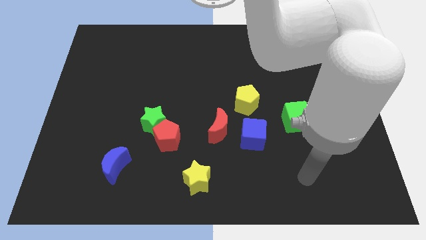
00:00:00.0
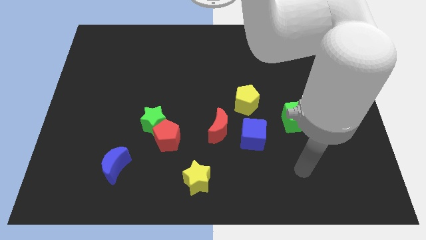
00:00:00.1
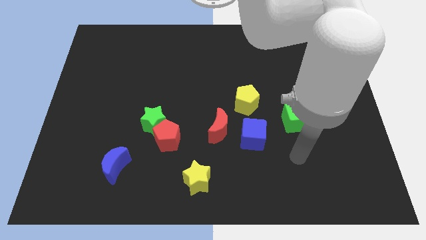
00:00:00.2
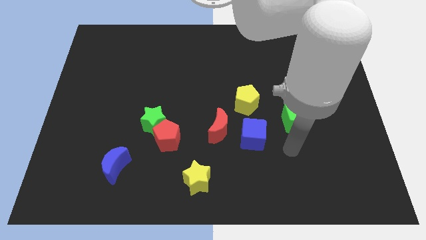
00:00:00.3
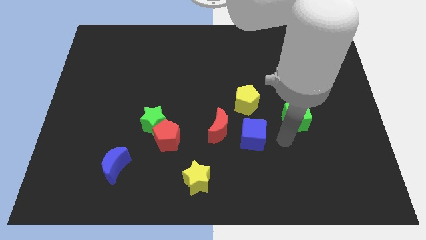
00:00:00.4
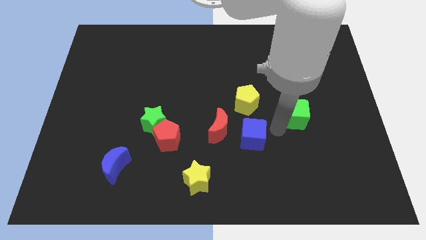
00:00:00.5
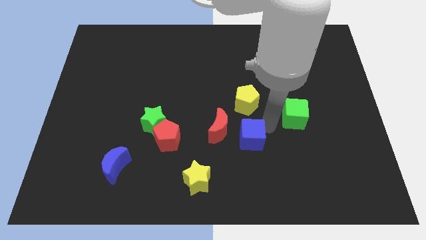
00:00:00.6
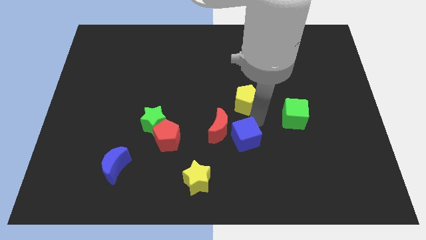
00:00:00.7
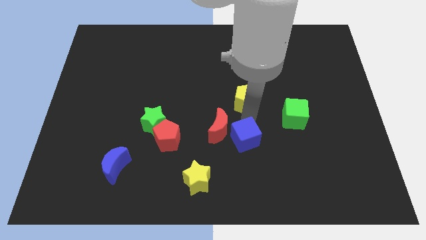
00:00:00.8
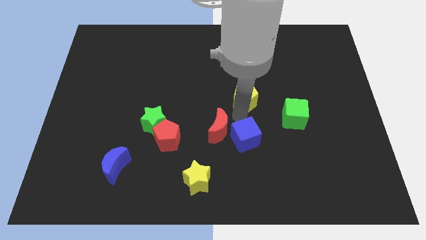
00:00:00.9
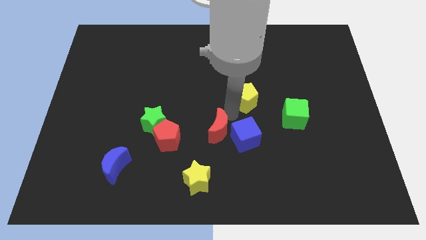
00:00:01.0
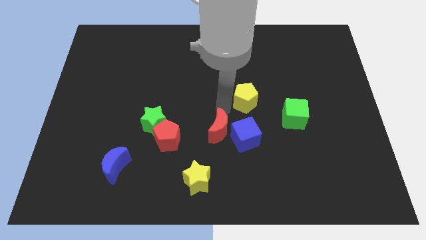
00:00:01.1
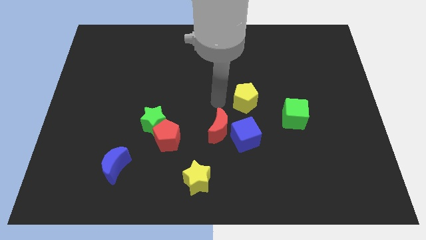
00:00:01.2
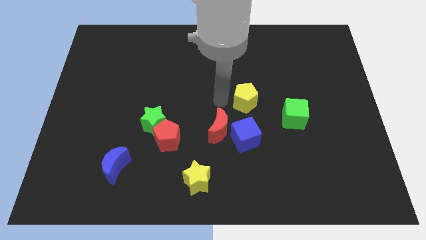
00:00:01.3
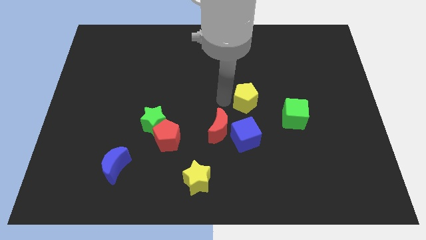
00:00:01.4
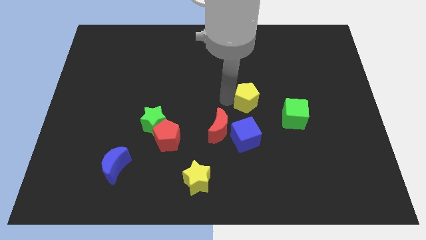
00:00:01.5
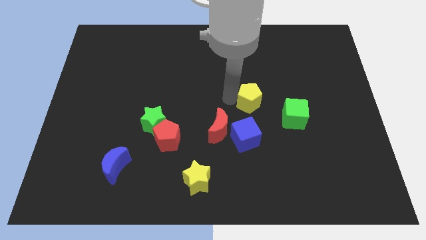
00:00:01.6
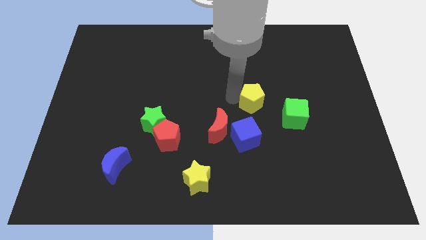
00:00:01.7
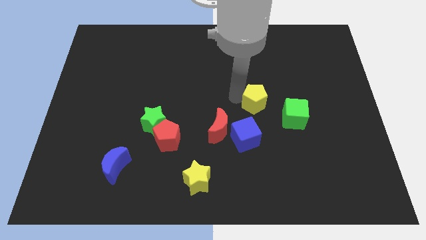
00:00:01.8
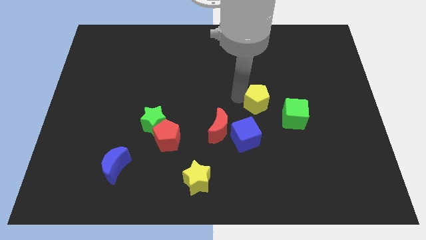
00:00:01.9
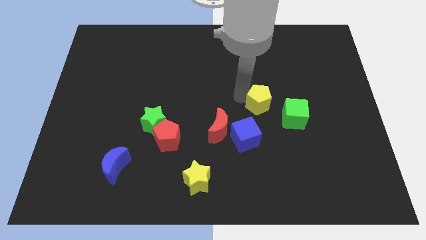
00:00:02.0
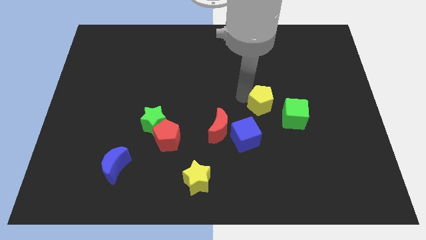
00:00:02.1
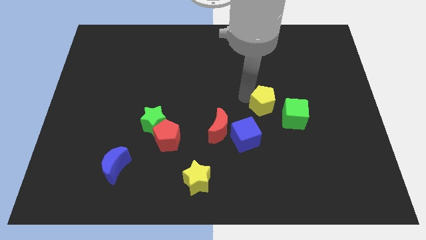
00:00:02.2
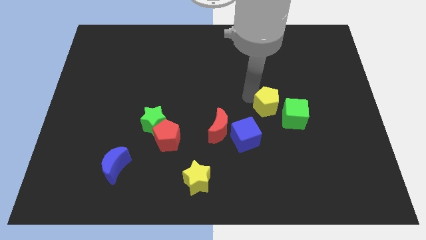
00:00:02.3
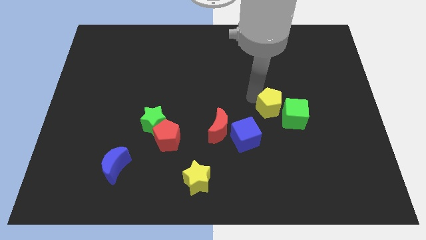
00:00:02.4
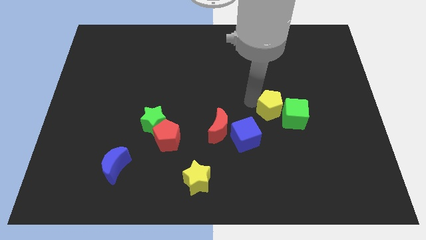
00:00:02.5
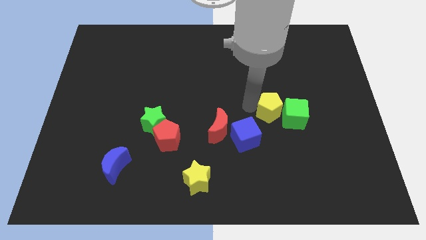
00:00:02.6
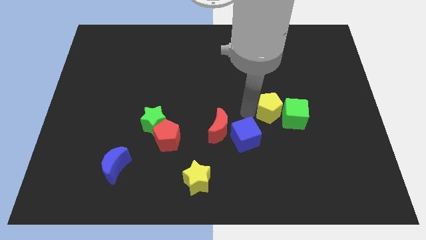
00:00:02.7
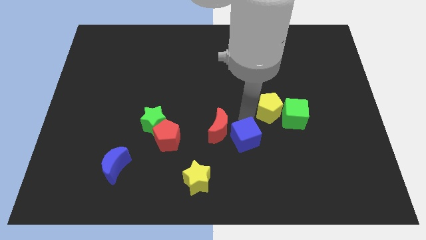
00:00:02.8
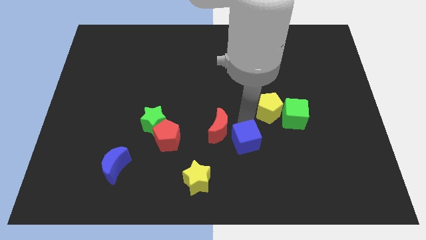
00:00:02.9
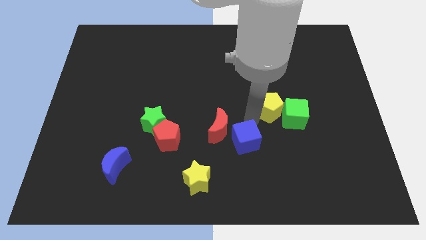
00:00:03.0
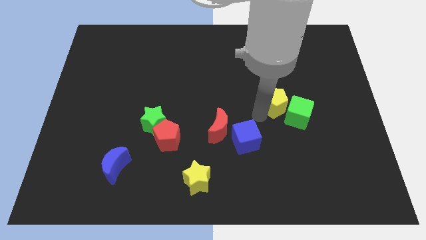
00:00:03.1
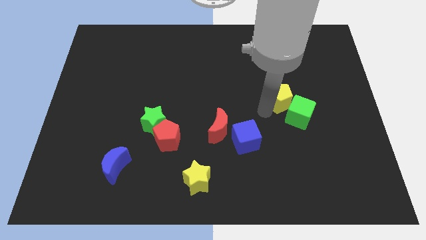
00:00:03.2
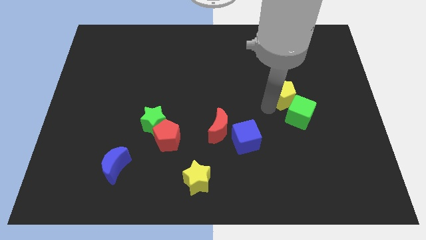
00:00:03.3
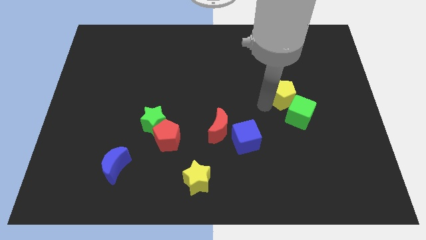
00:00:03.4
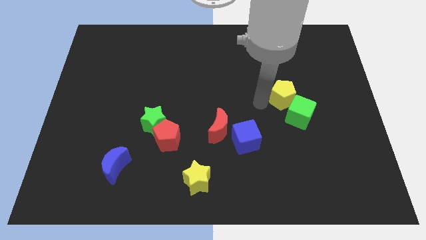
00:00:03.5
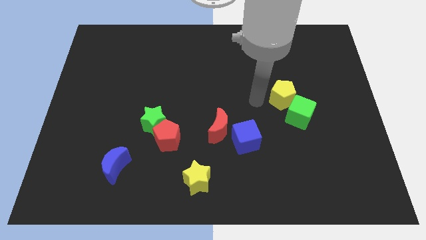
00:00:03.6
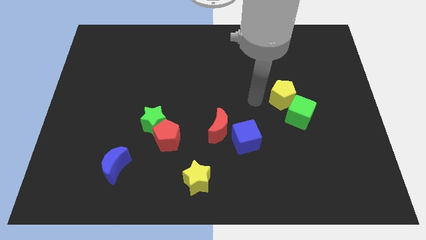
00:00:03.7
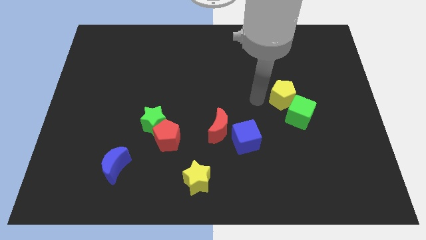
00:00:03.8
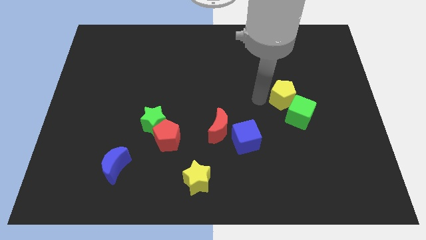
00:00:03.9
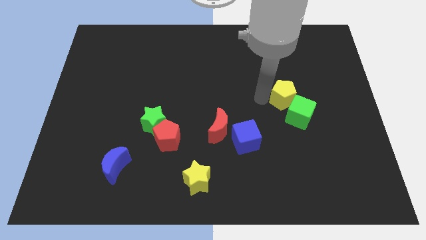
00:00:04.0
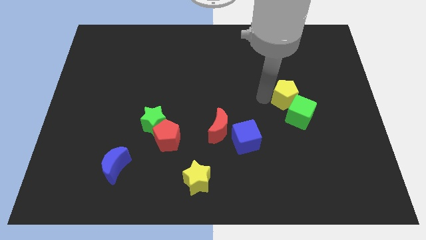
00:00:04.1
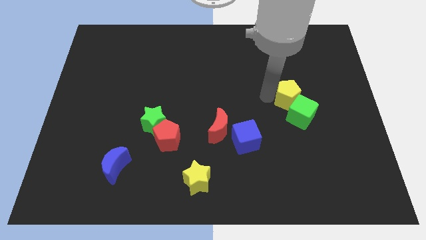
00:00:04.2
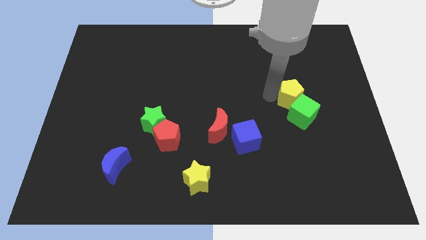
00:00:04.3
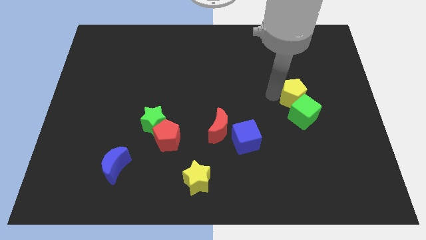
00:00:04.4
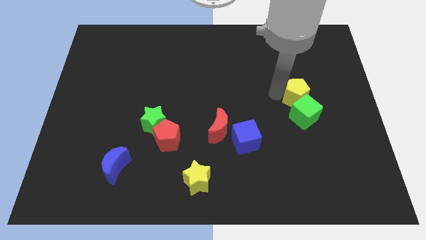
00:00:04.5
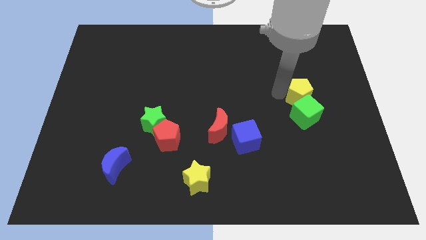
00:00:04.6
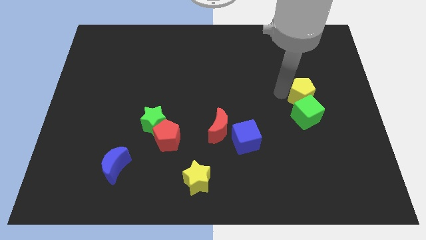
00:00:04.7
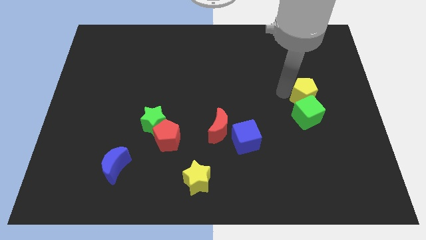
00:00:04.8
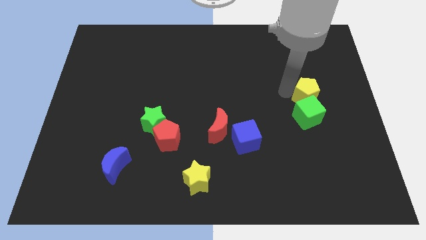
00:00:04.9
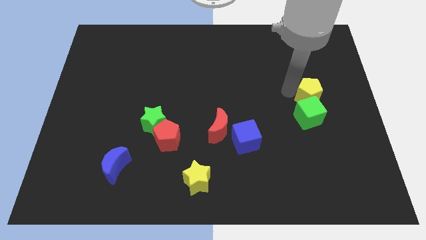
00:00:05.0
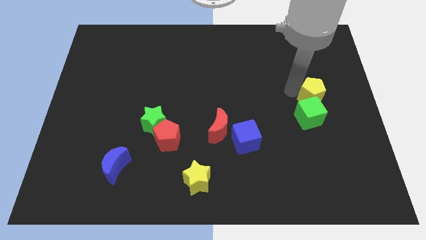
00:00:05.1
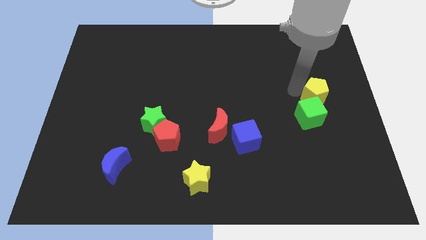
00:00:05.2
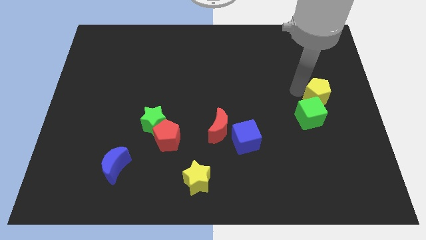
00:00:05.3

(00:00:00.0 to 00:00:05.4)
move the yellow pentagon to the right side of the board
